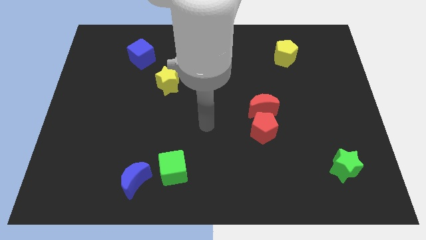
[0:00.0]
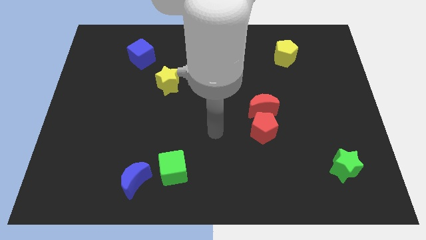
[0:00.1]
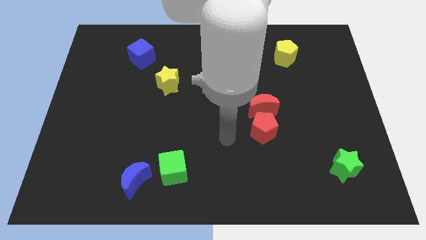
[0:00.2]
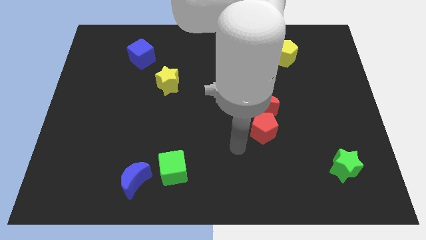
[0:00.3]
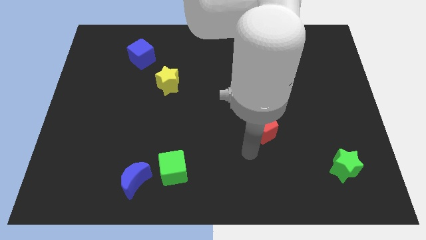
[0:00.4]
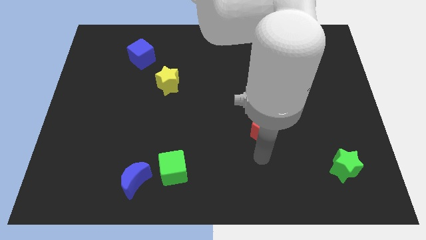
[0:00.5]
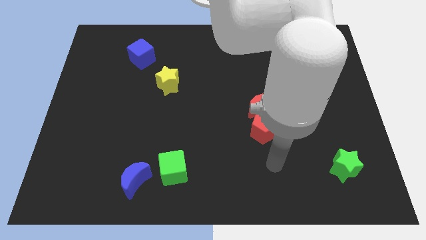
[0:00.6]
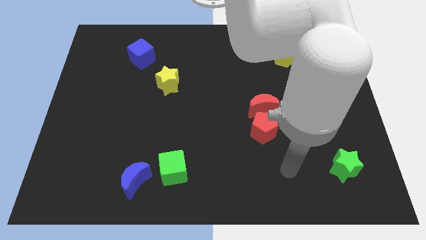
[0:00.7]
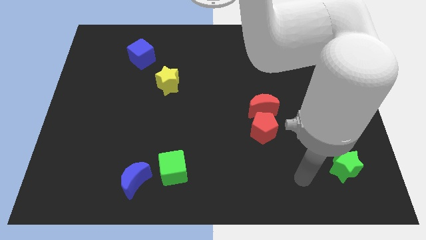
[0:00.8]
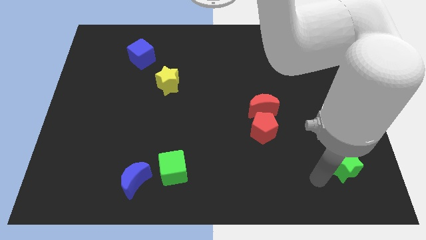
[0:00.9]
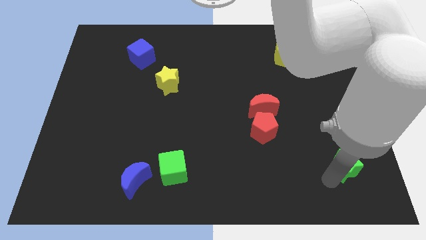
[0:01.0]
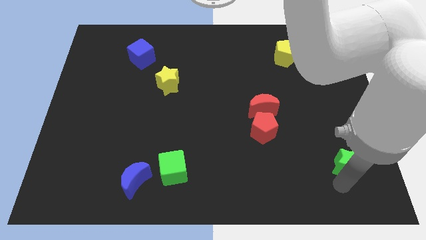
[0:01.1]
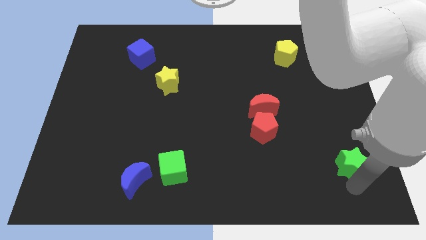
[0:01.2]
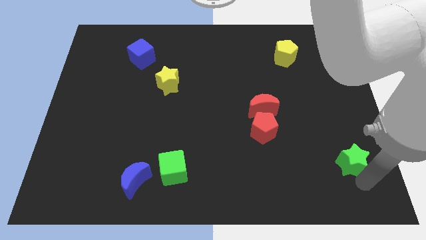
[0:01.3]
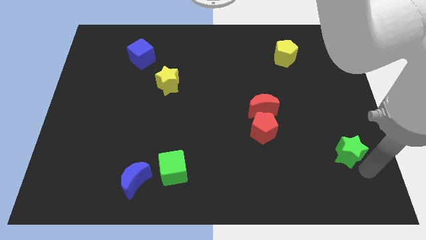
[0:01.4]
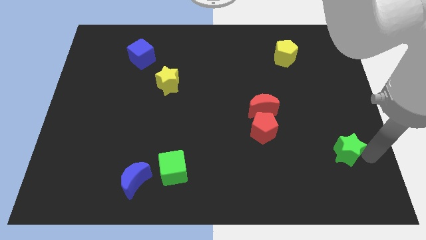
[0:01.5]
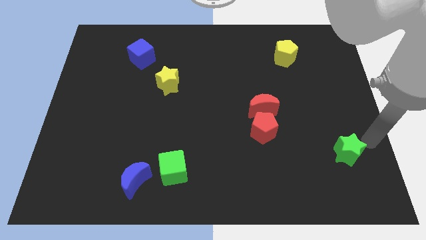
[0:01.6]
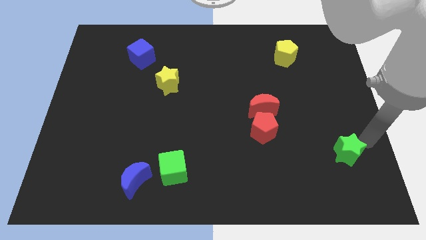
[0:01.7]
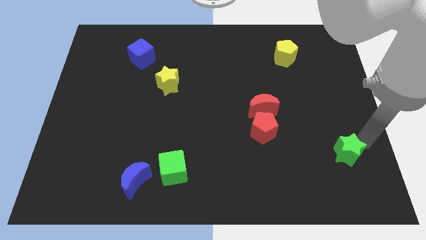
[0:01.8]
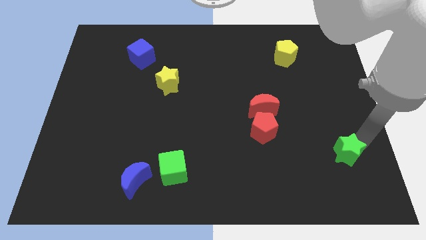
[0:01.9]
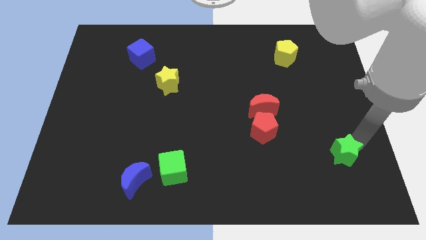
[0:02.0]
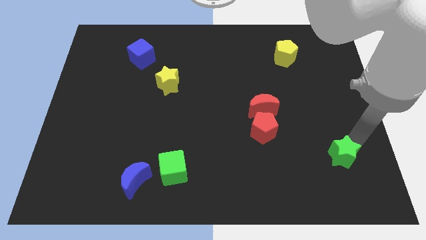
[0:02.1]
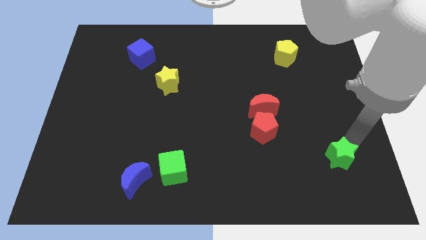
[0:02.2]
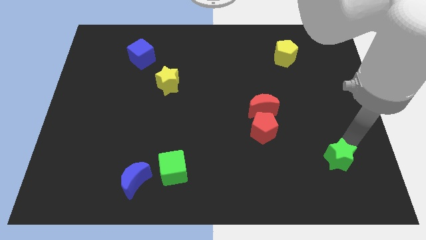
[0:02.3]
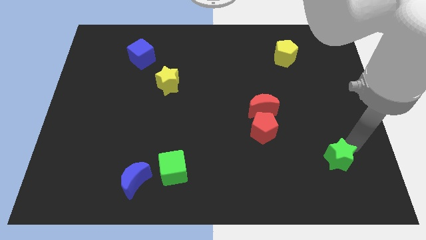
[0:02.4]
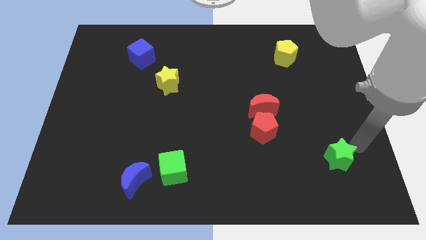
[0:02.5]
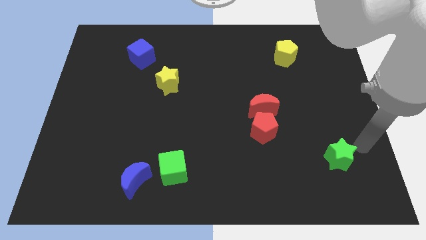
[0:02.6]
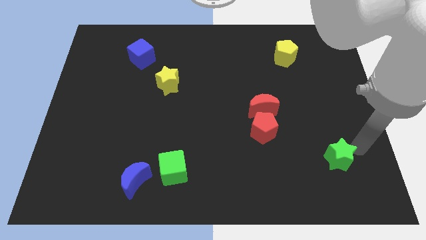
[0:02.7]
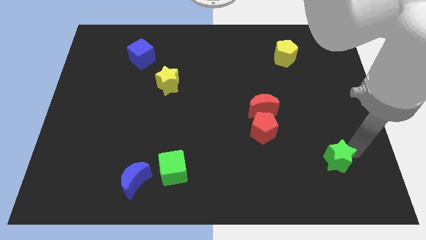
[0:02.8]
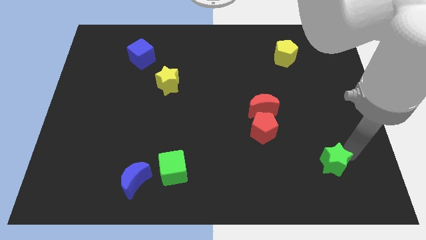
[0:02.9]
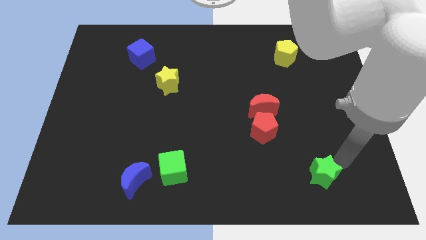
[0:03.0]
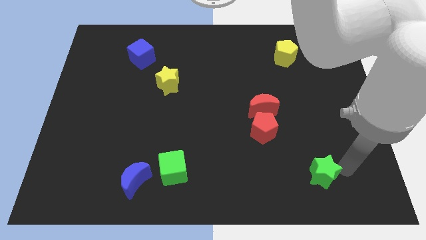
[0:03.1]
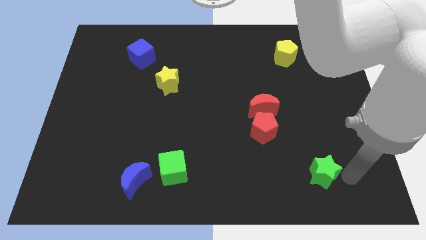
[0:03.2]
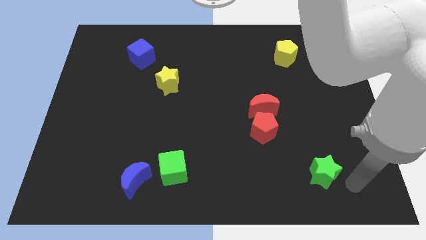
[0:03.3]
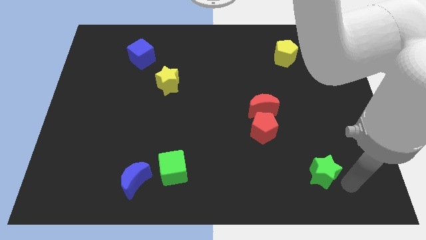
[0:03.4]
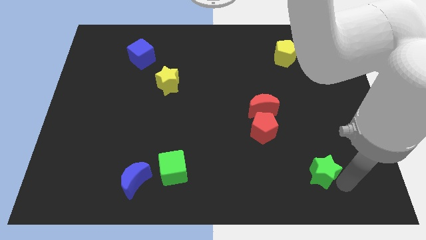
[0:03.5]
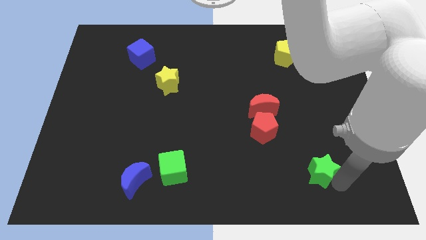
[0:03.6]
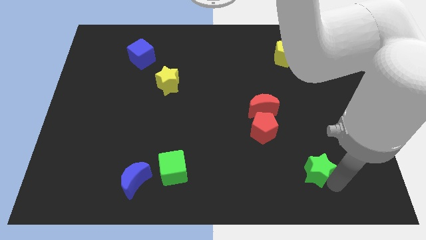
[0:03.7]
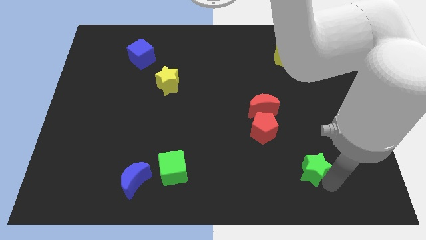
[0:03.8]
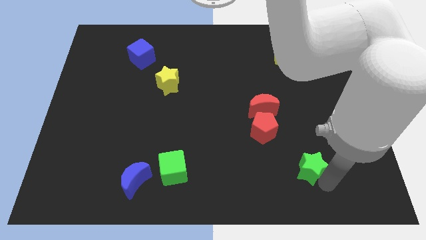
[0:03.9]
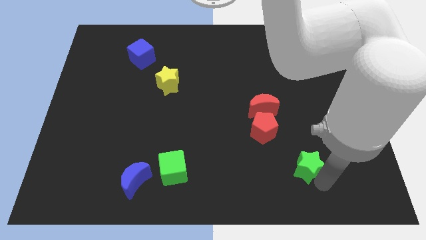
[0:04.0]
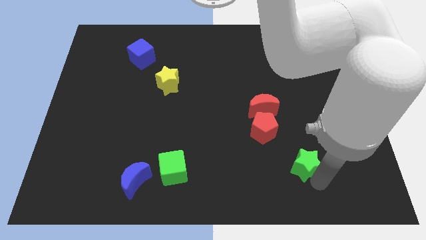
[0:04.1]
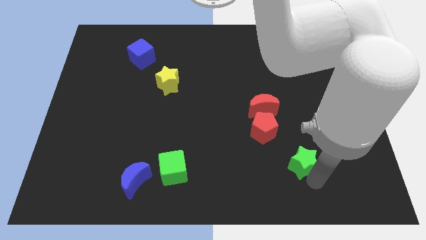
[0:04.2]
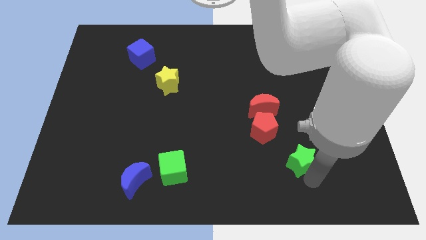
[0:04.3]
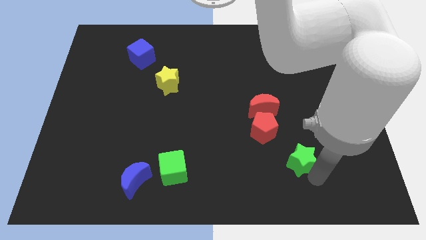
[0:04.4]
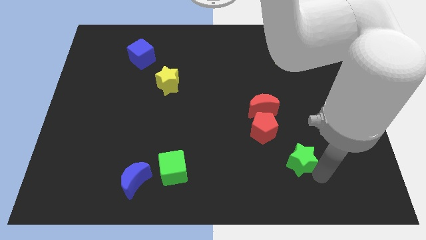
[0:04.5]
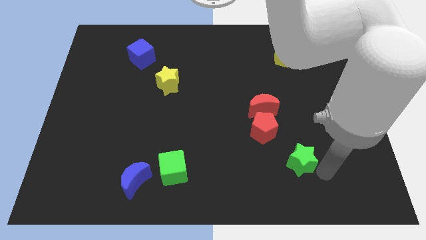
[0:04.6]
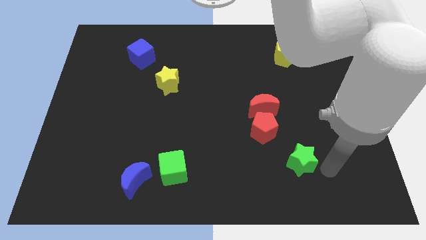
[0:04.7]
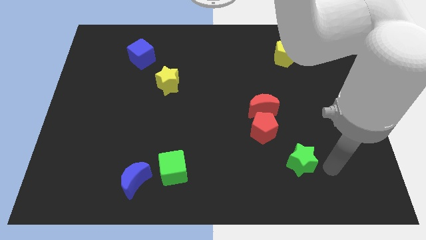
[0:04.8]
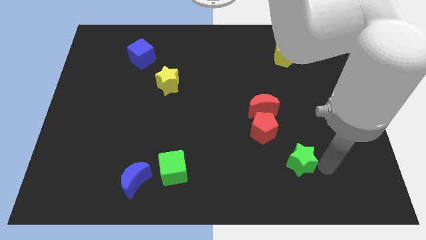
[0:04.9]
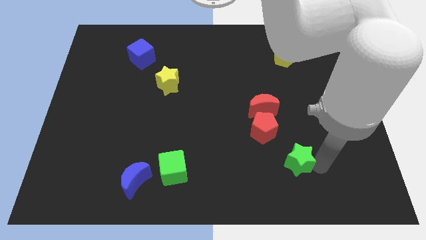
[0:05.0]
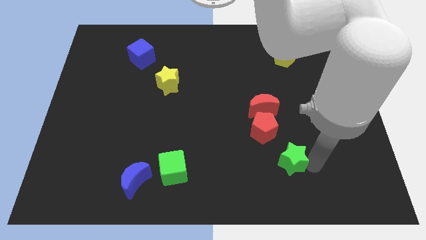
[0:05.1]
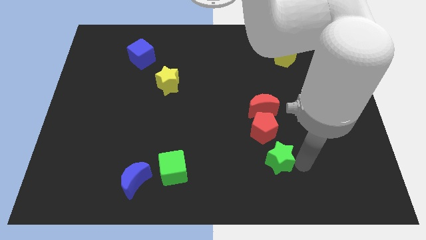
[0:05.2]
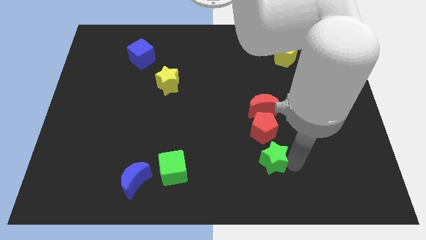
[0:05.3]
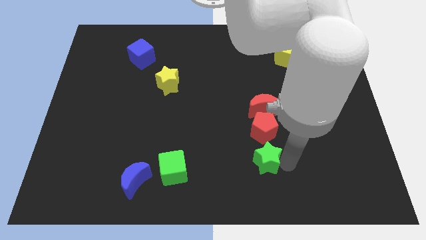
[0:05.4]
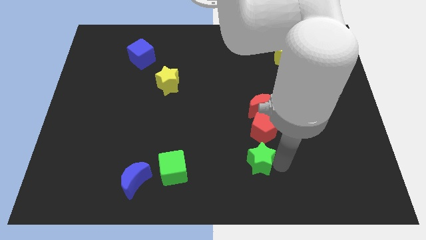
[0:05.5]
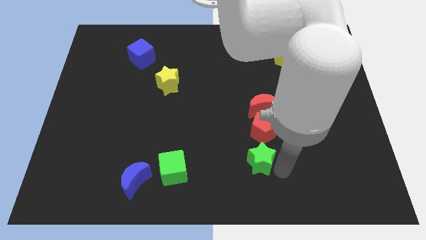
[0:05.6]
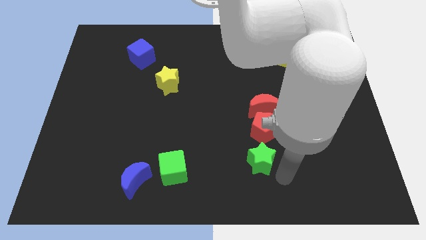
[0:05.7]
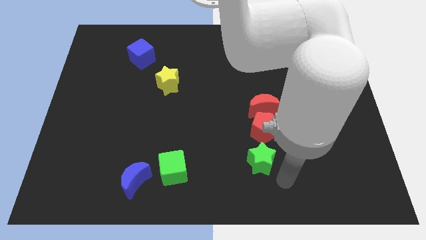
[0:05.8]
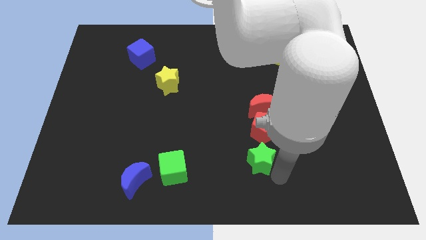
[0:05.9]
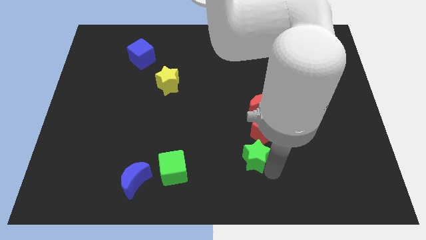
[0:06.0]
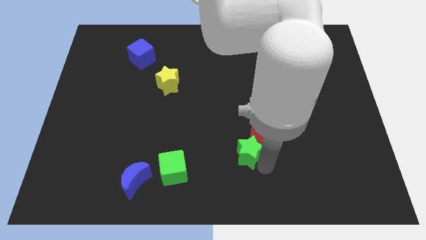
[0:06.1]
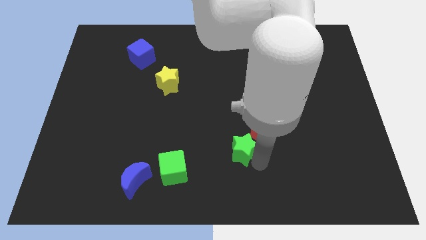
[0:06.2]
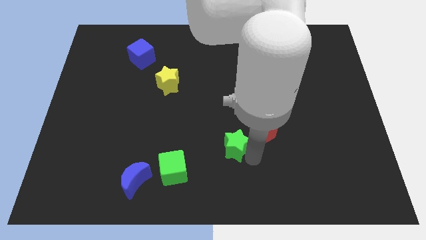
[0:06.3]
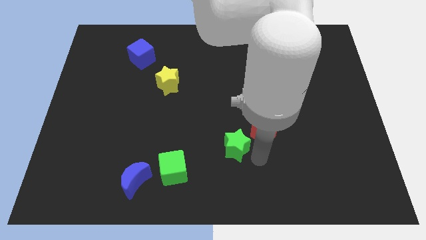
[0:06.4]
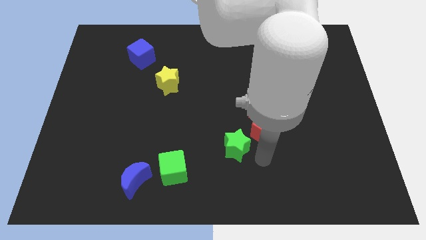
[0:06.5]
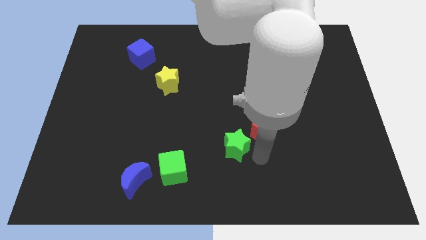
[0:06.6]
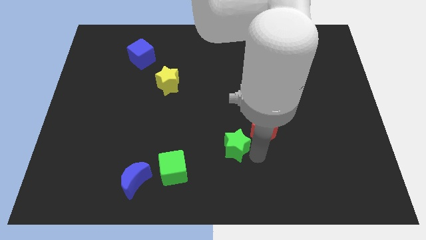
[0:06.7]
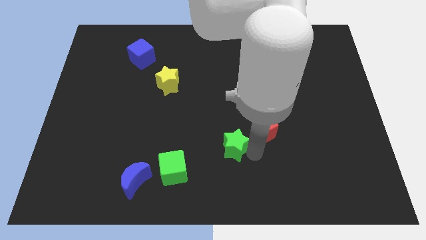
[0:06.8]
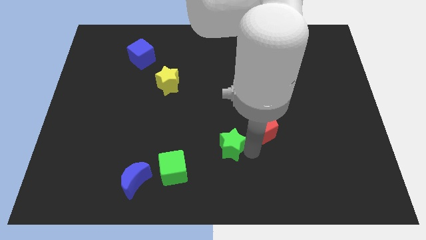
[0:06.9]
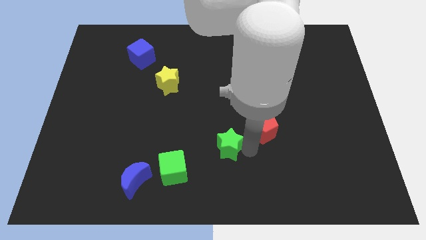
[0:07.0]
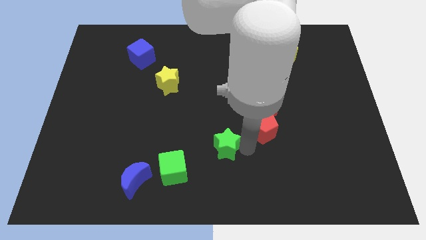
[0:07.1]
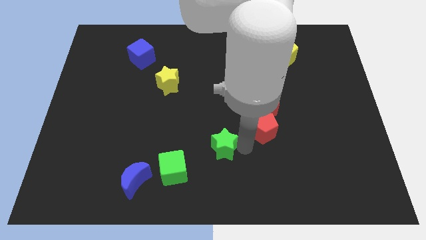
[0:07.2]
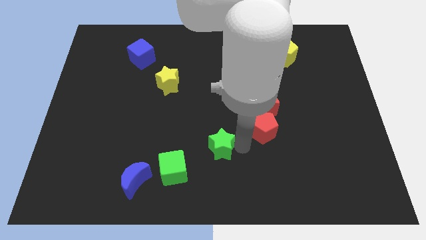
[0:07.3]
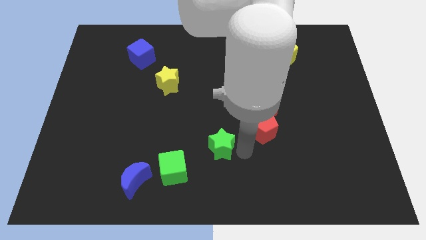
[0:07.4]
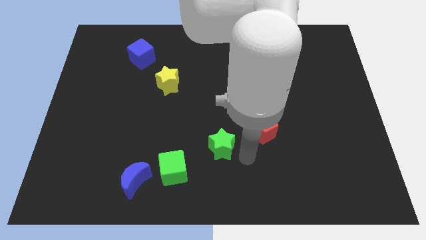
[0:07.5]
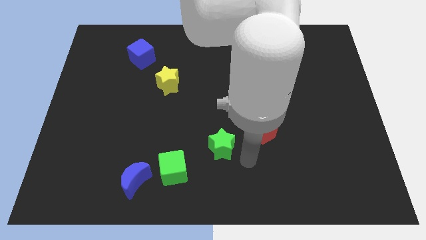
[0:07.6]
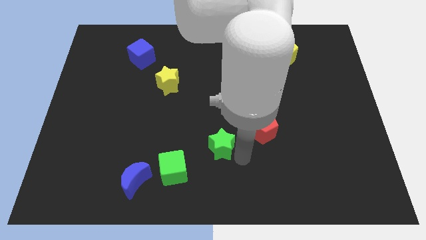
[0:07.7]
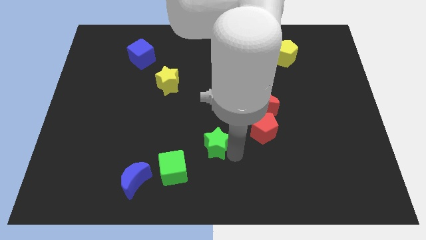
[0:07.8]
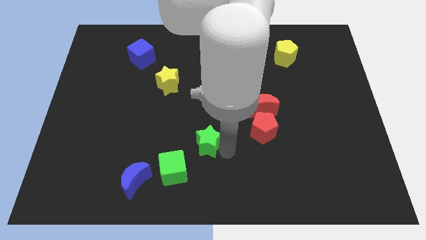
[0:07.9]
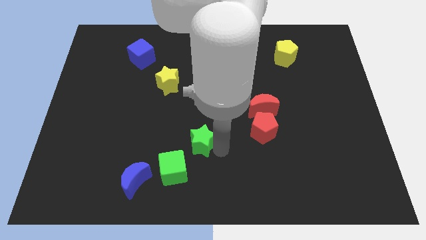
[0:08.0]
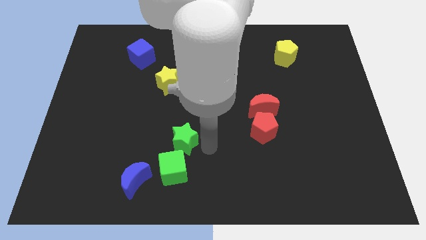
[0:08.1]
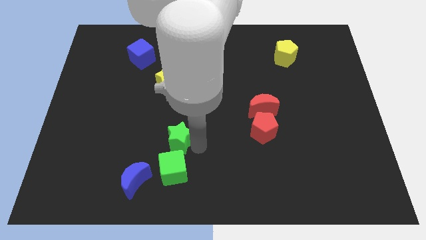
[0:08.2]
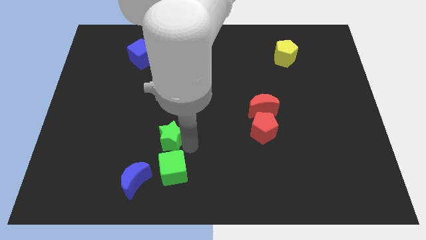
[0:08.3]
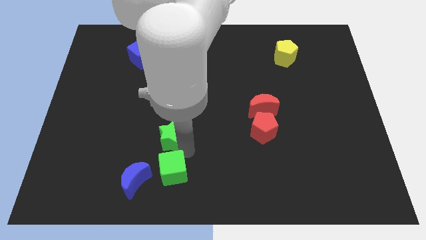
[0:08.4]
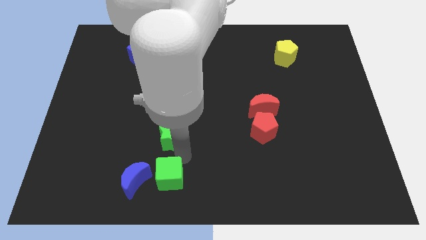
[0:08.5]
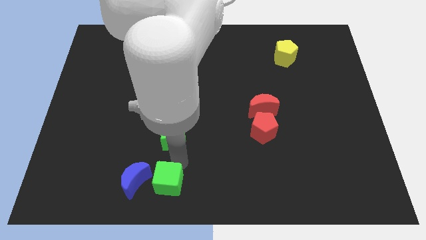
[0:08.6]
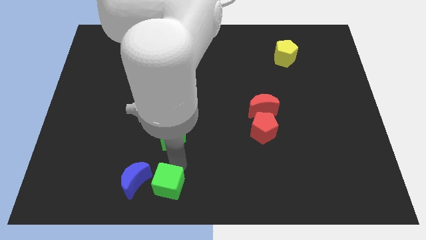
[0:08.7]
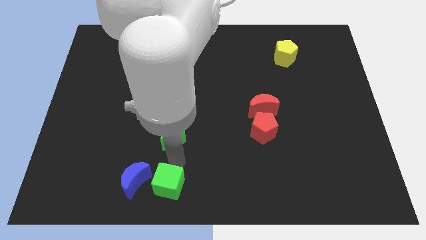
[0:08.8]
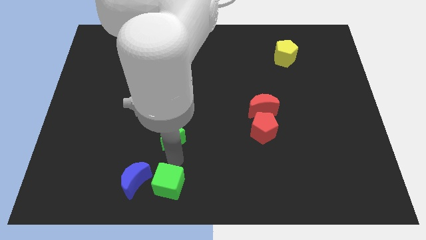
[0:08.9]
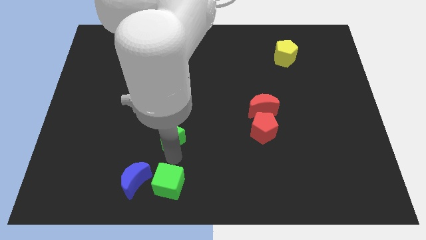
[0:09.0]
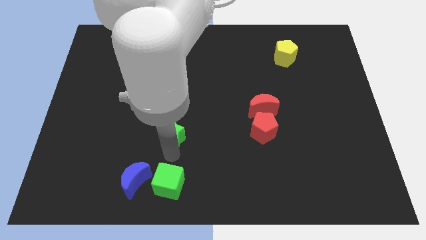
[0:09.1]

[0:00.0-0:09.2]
put the green star to the bottom of the yellow star
